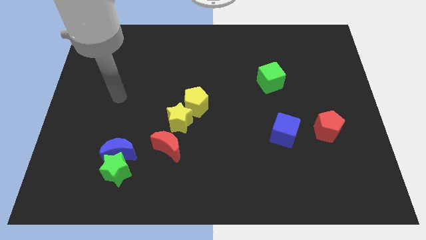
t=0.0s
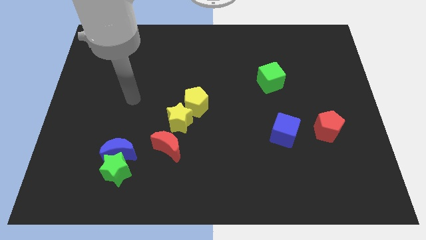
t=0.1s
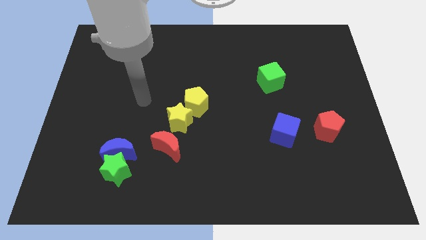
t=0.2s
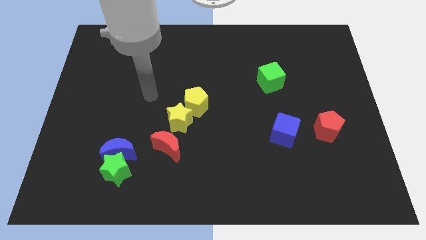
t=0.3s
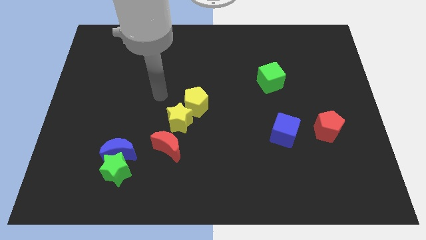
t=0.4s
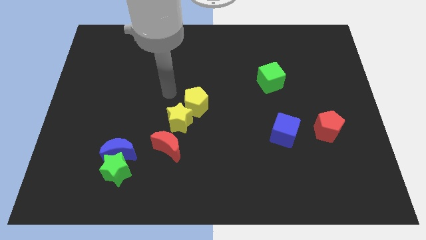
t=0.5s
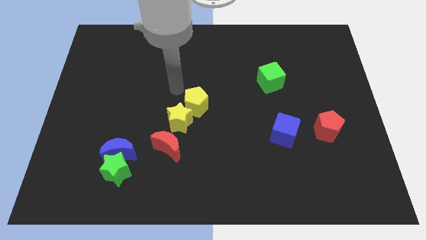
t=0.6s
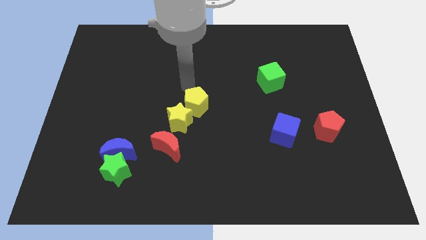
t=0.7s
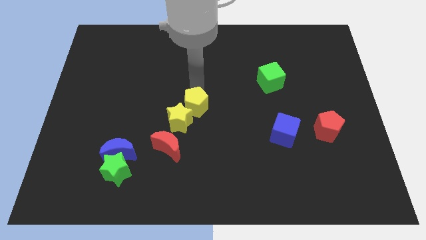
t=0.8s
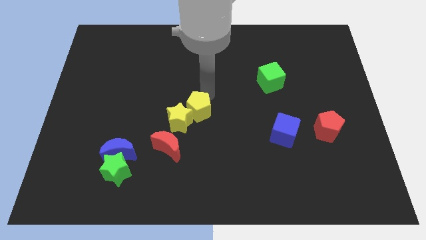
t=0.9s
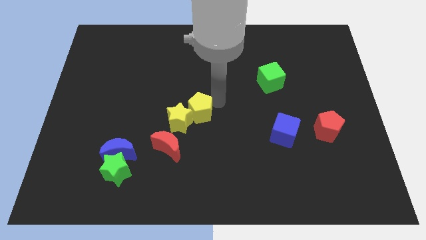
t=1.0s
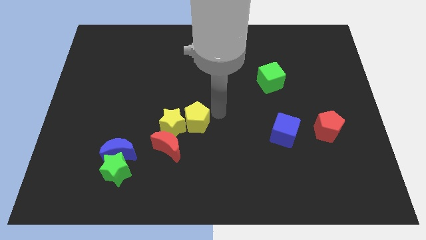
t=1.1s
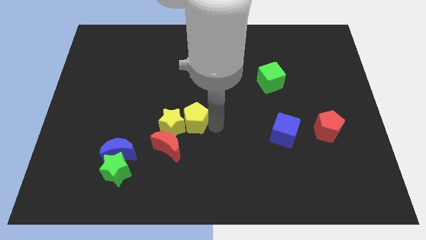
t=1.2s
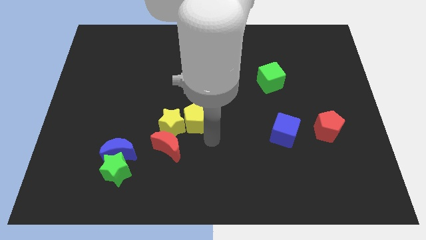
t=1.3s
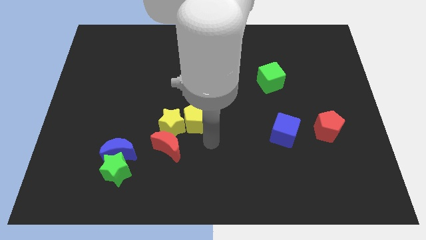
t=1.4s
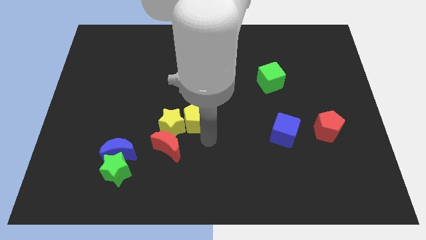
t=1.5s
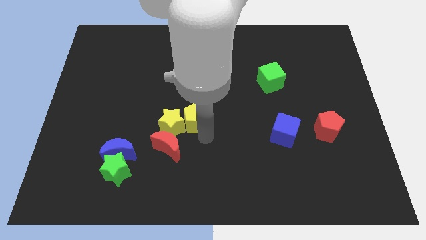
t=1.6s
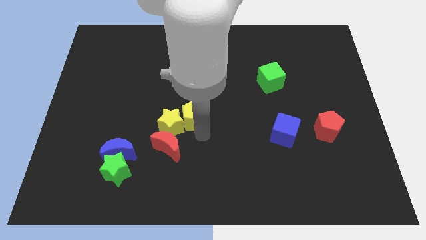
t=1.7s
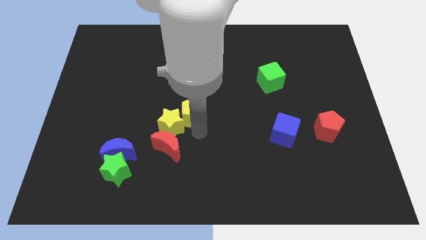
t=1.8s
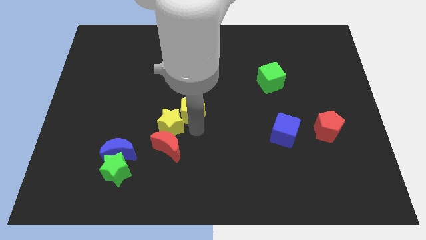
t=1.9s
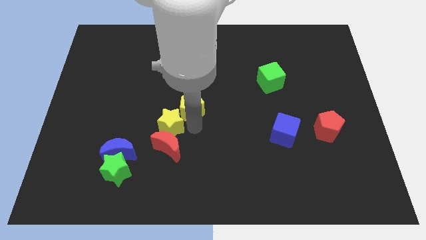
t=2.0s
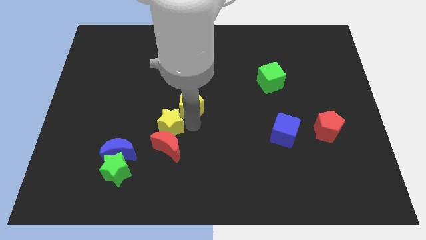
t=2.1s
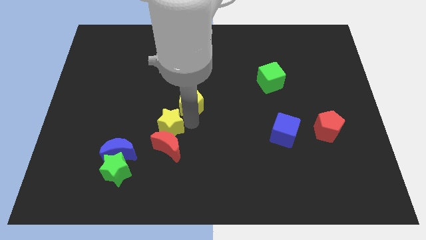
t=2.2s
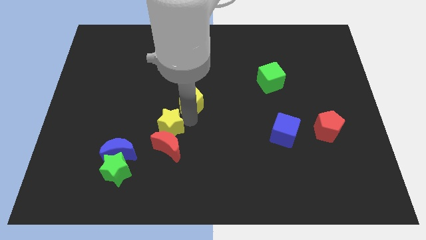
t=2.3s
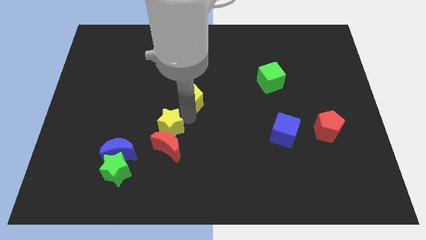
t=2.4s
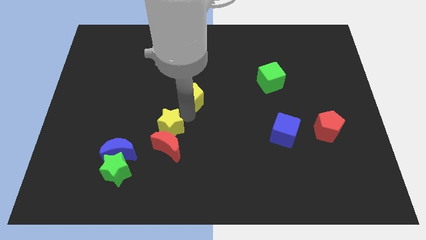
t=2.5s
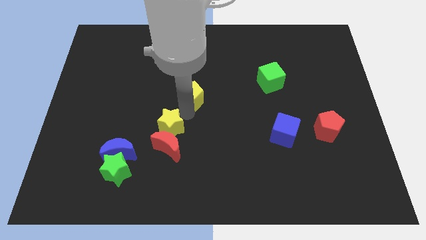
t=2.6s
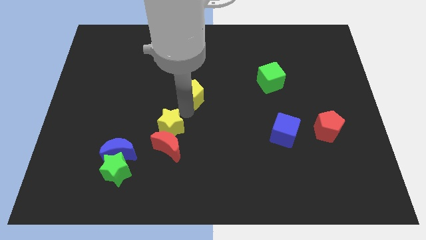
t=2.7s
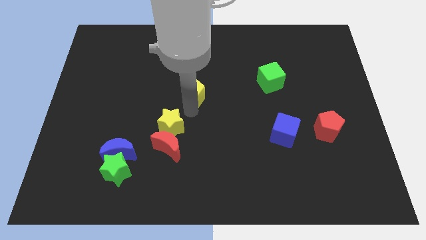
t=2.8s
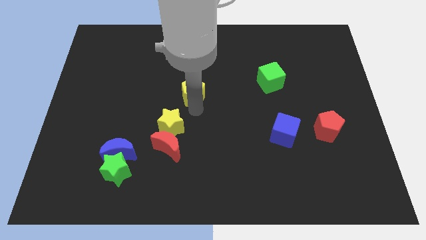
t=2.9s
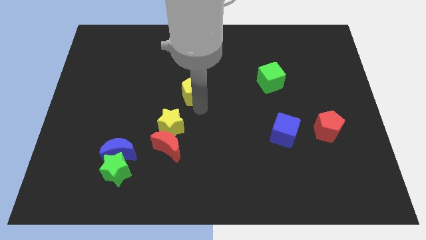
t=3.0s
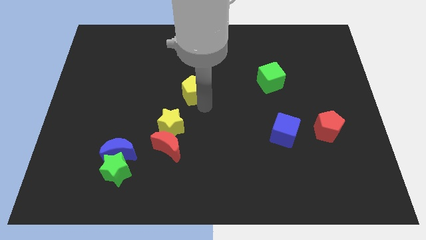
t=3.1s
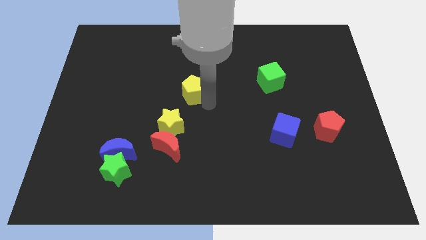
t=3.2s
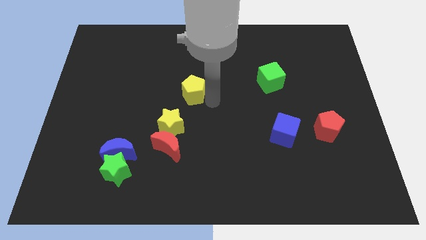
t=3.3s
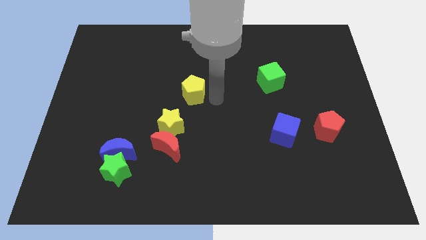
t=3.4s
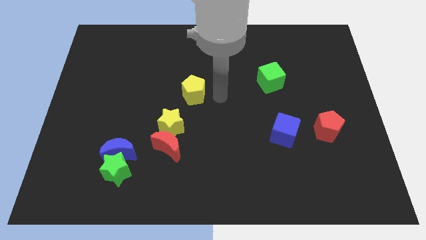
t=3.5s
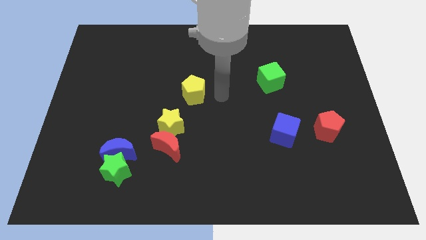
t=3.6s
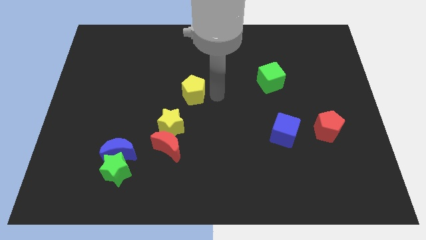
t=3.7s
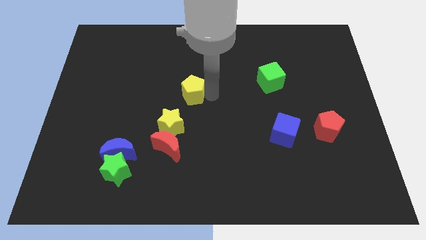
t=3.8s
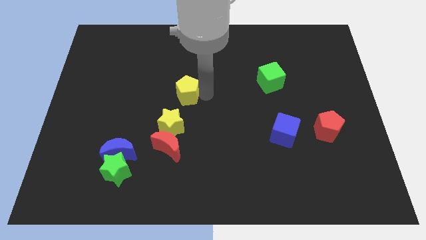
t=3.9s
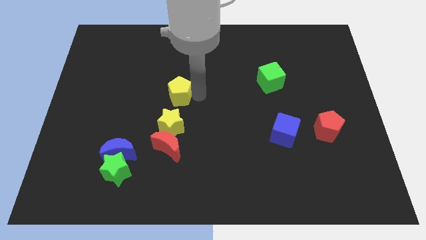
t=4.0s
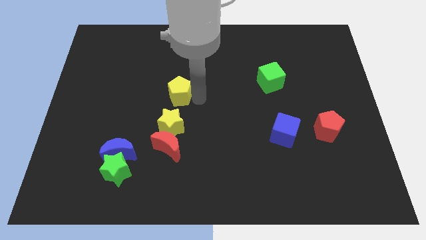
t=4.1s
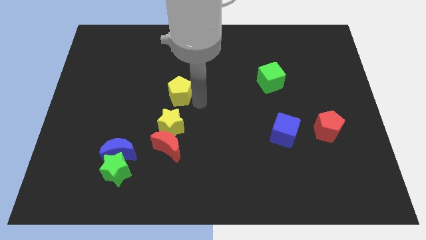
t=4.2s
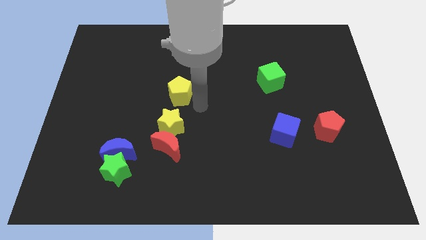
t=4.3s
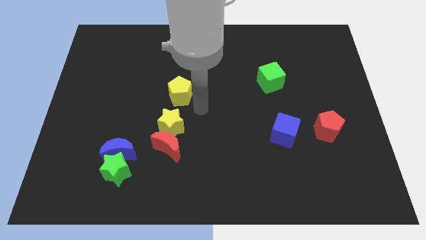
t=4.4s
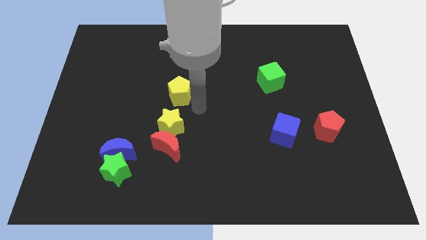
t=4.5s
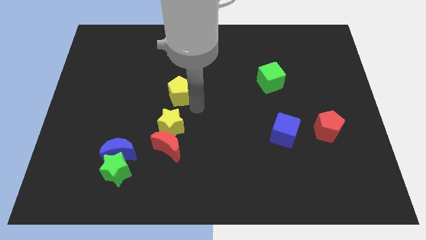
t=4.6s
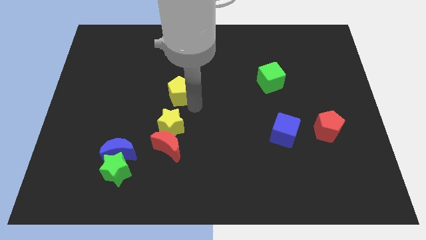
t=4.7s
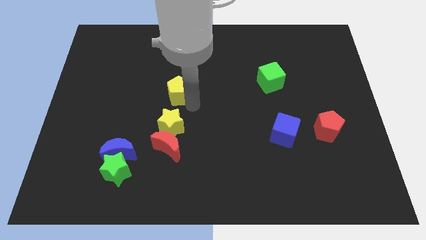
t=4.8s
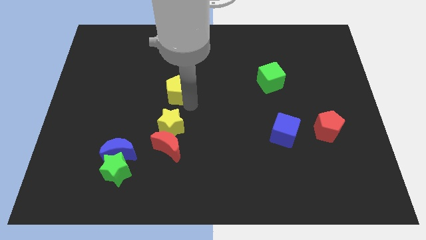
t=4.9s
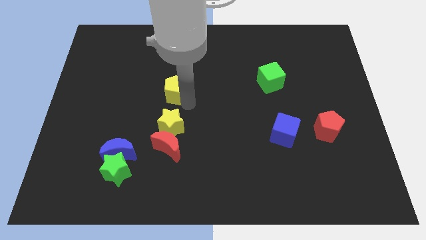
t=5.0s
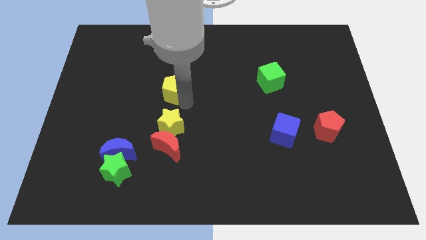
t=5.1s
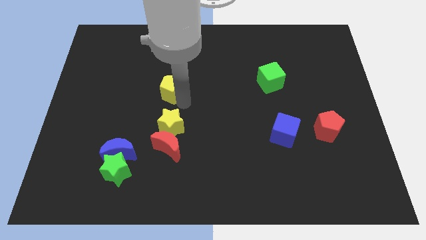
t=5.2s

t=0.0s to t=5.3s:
slide the yellow pentagon up and then to the left a bit

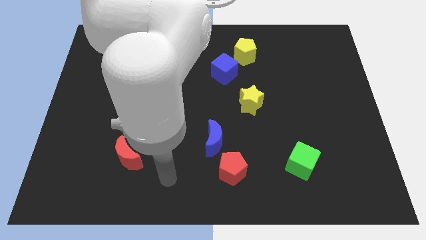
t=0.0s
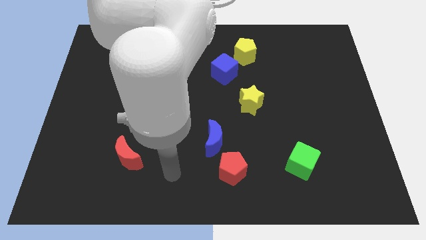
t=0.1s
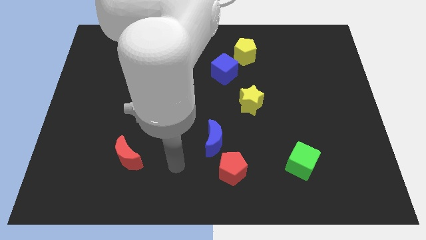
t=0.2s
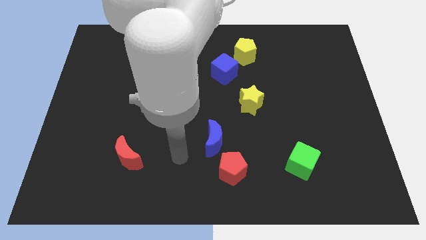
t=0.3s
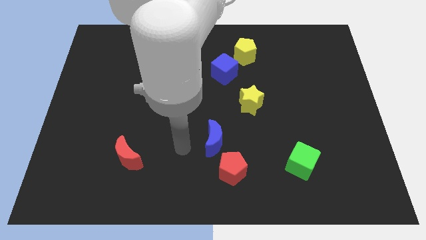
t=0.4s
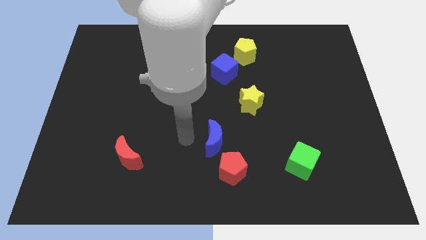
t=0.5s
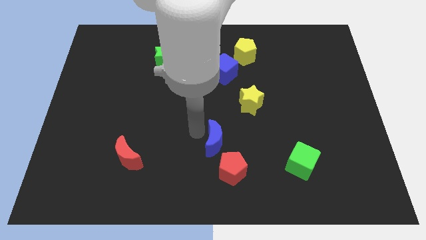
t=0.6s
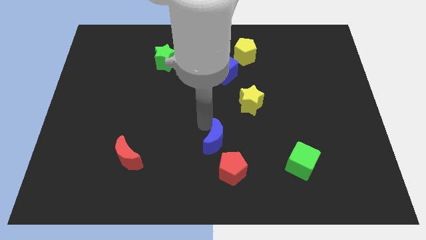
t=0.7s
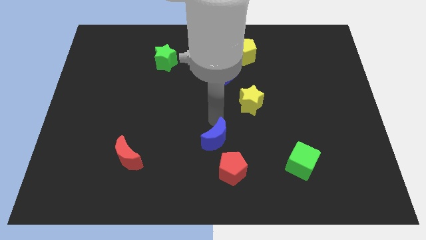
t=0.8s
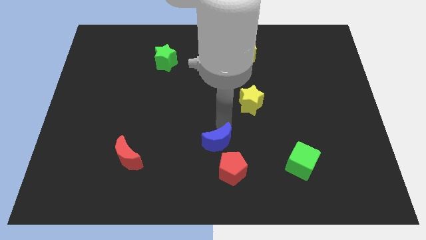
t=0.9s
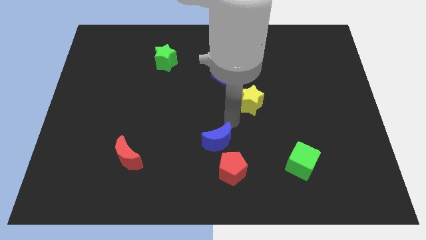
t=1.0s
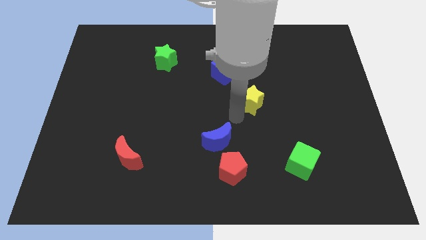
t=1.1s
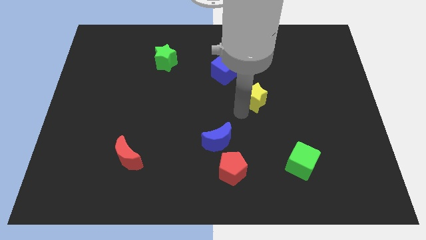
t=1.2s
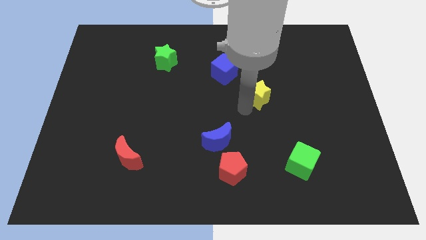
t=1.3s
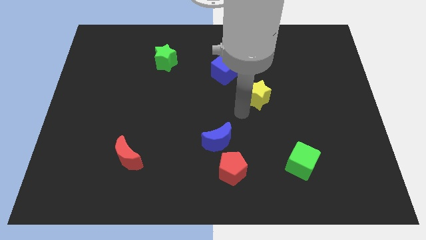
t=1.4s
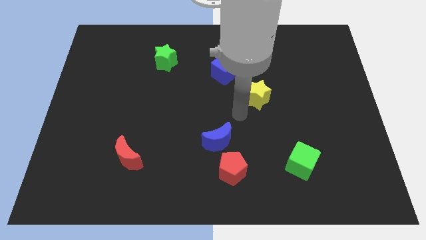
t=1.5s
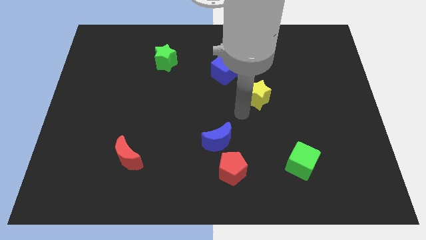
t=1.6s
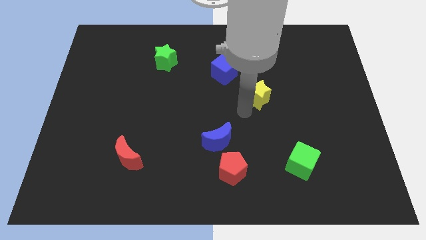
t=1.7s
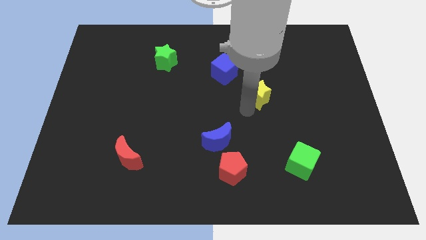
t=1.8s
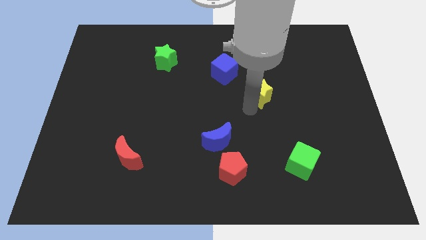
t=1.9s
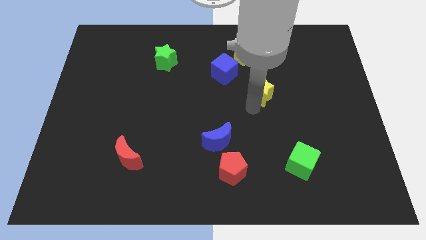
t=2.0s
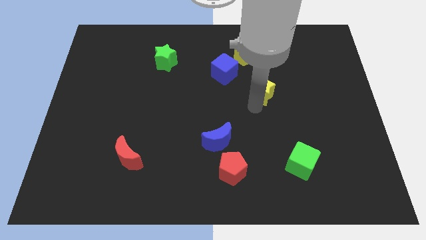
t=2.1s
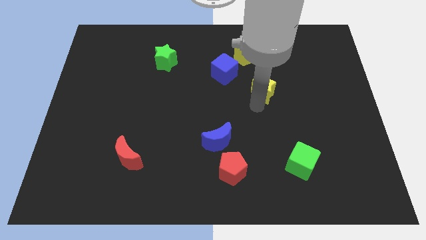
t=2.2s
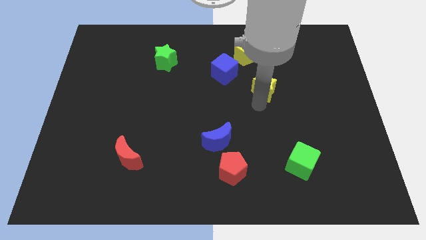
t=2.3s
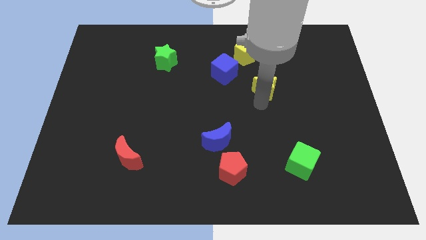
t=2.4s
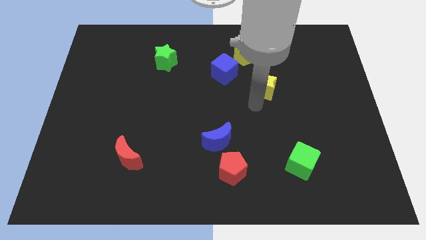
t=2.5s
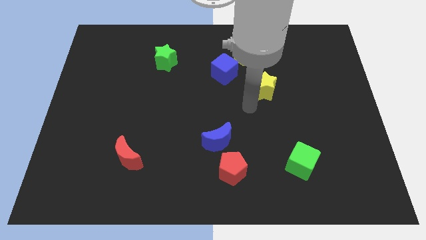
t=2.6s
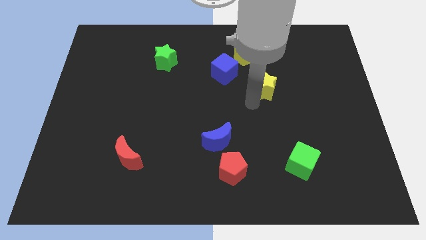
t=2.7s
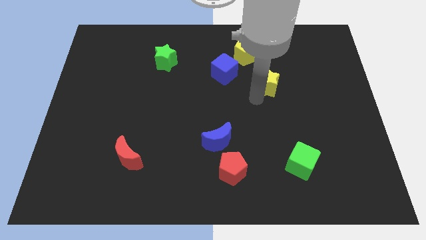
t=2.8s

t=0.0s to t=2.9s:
slightly slide the yellow star diagonally upwards and right
